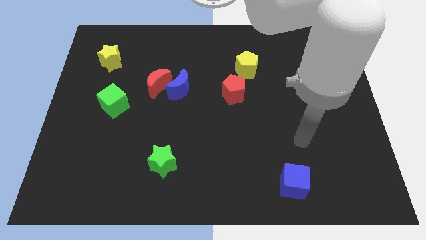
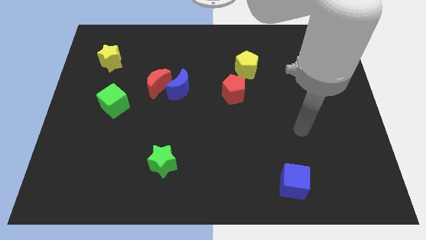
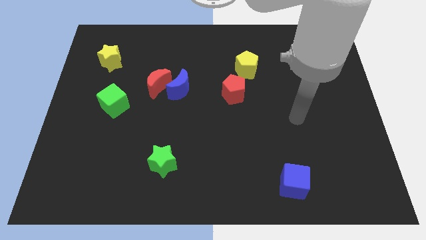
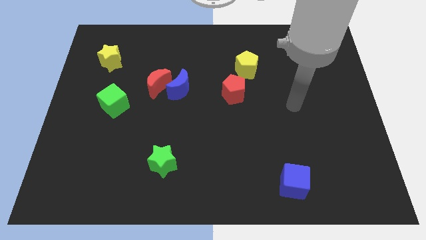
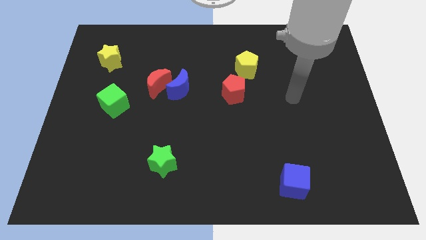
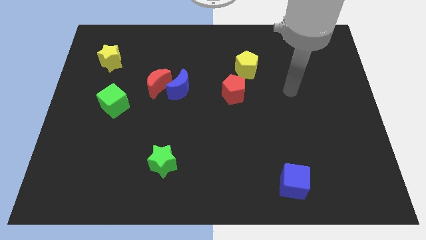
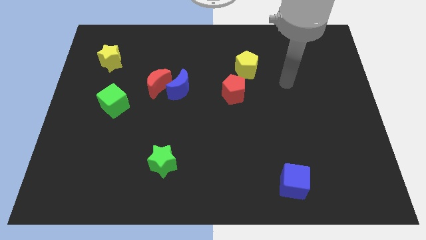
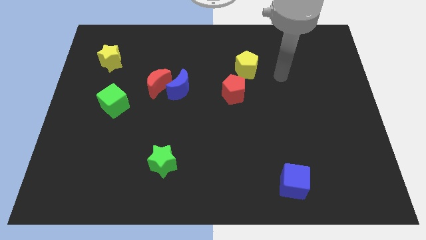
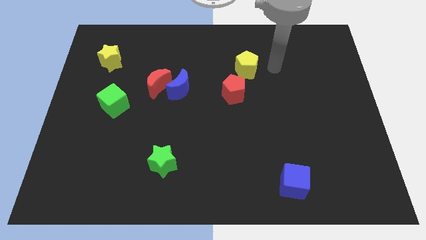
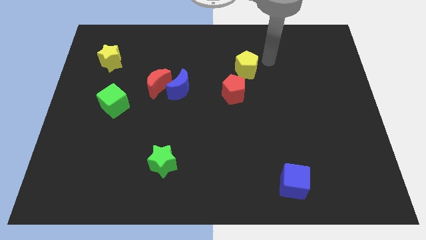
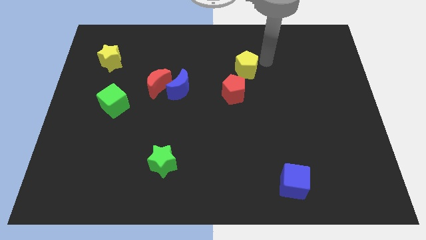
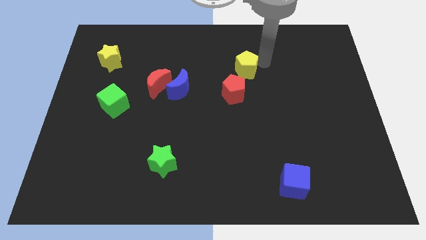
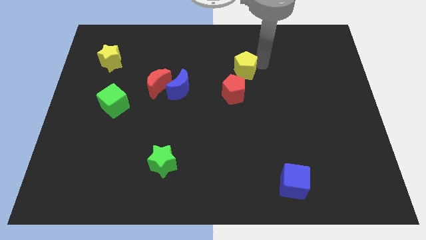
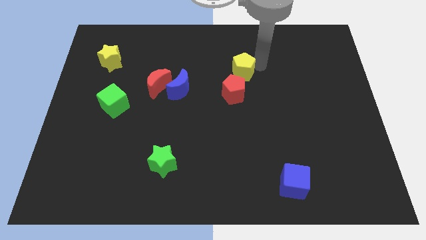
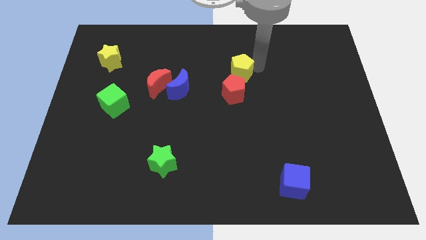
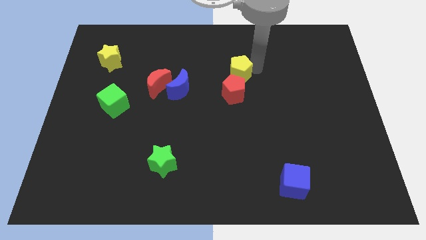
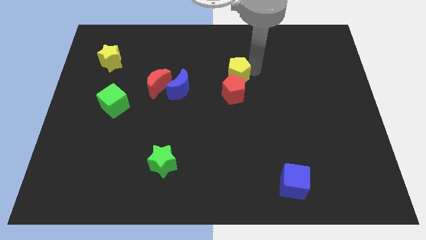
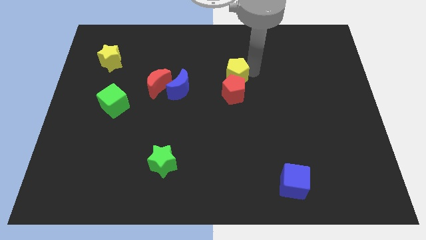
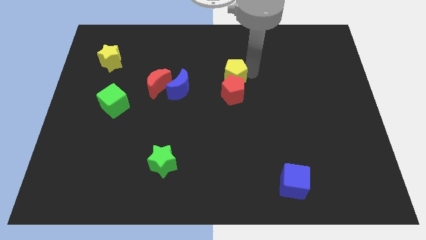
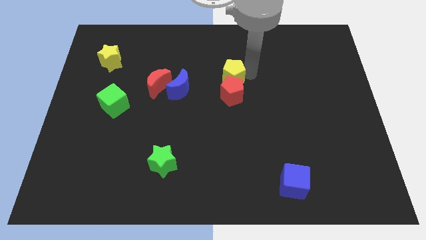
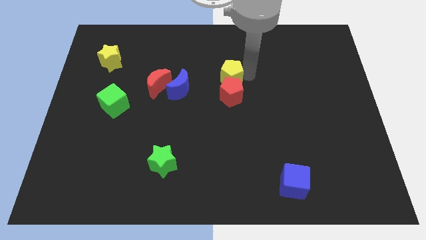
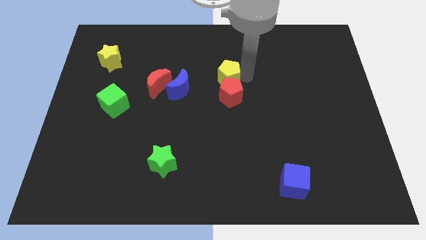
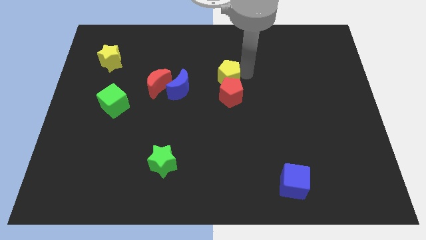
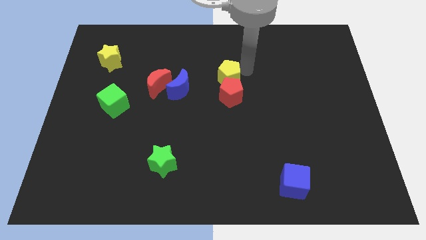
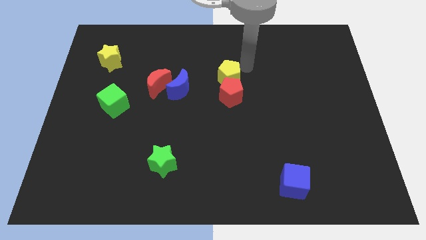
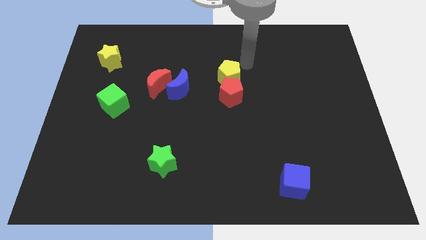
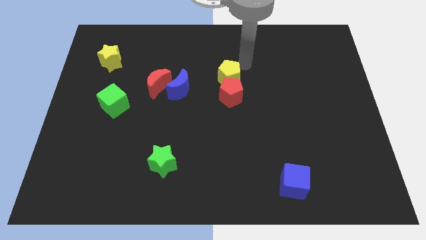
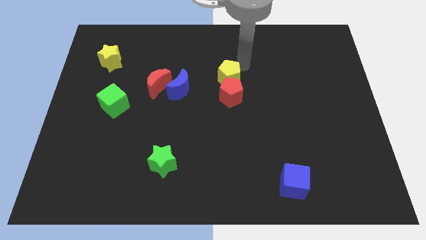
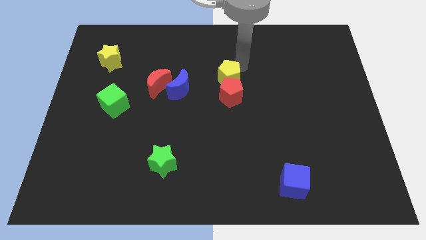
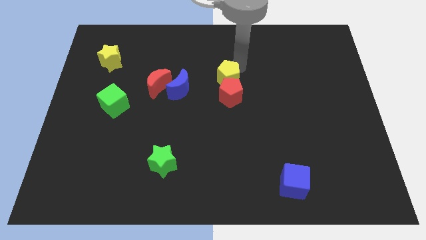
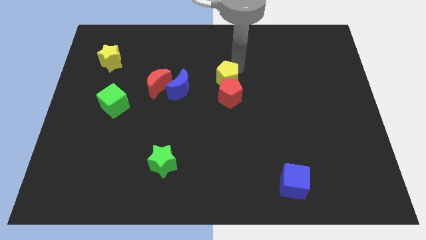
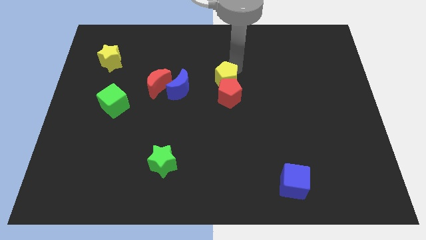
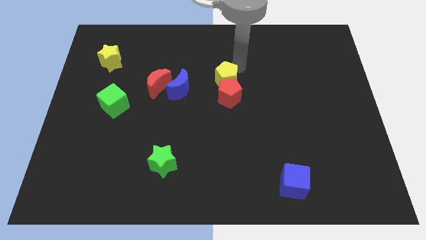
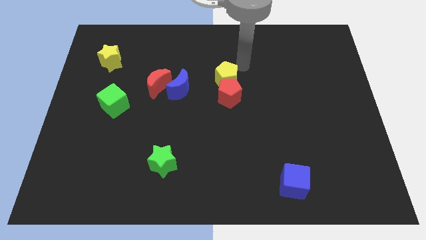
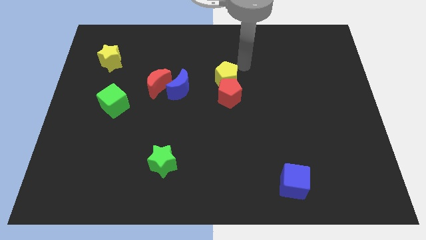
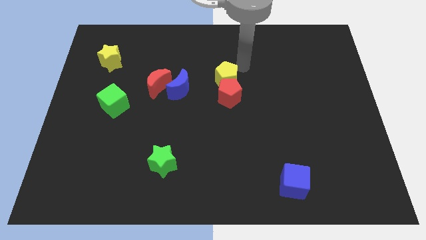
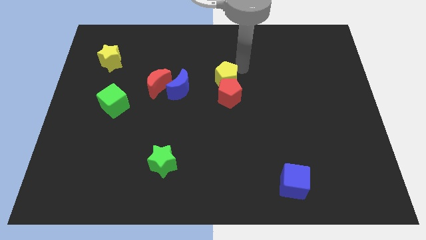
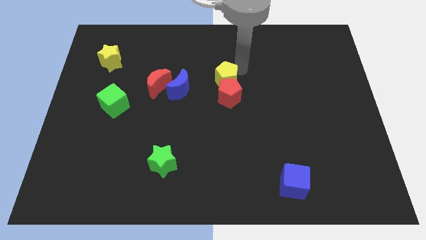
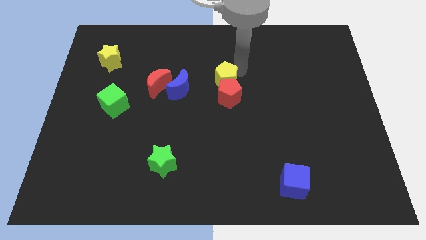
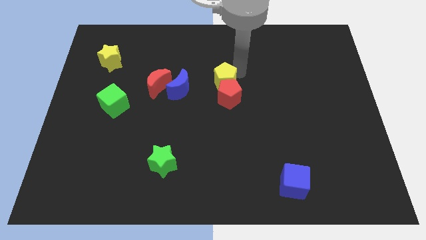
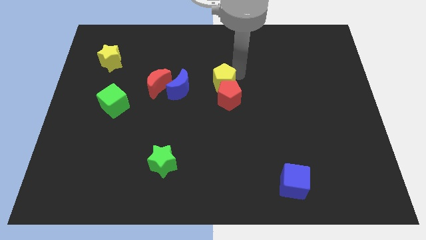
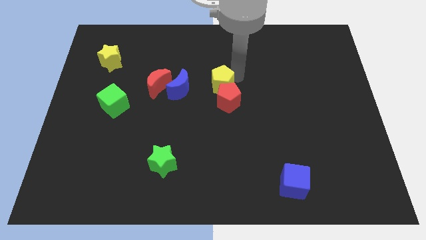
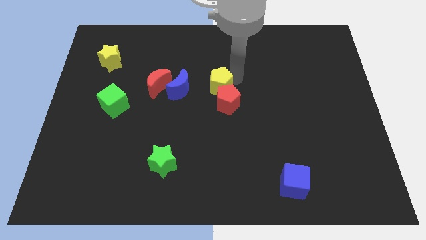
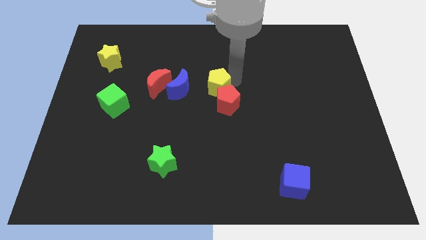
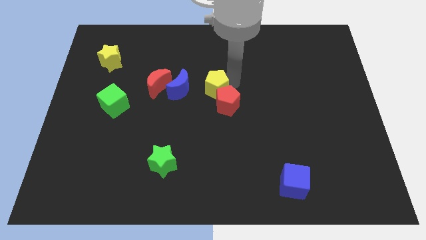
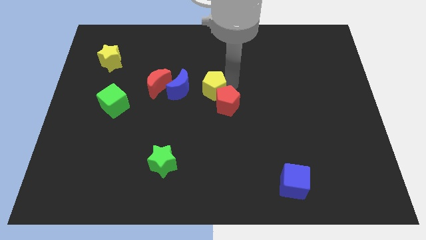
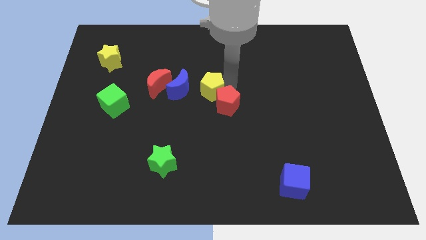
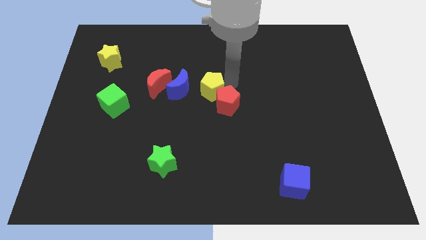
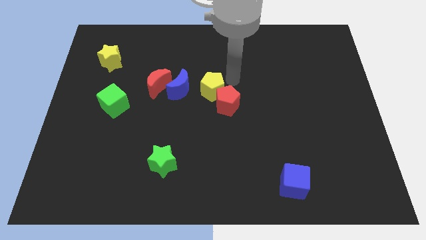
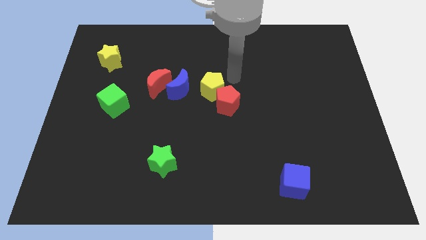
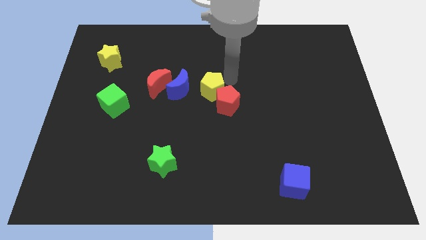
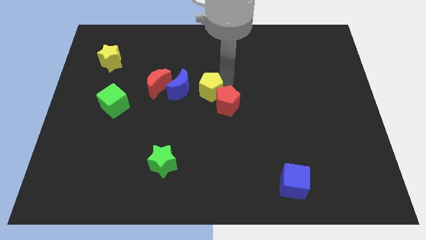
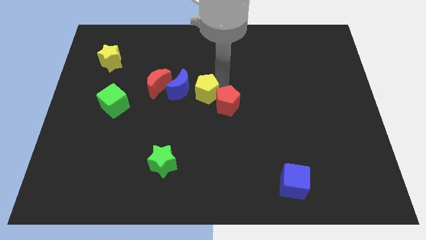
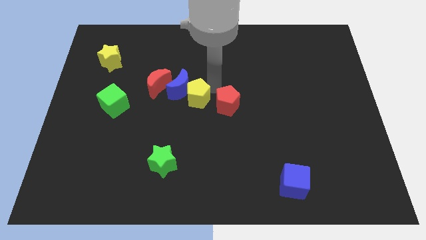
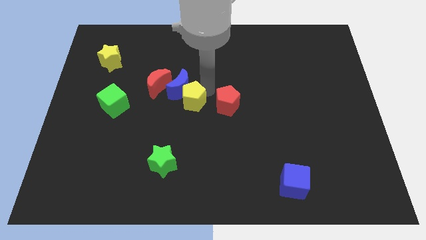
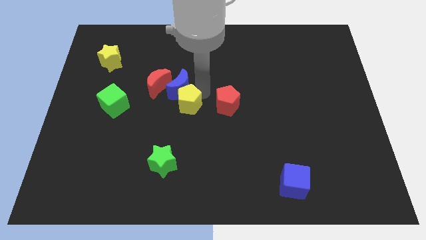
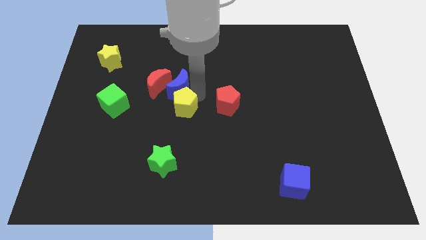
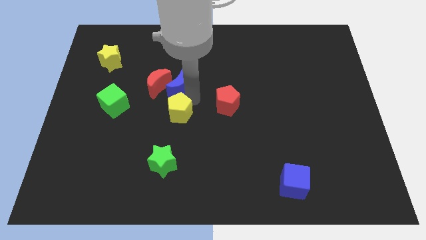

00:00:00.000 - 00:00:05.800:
move the yellow pentagon downwards and to the left diagonally

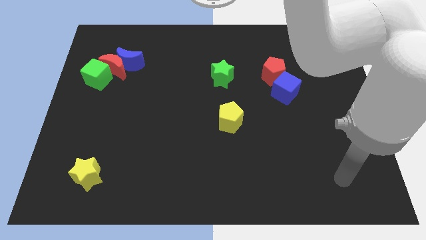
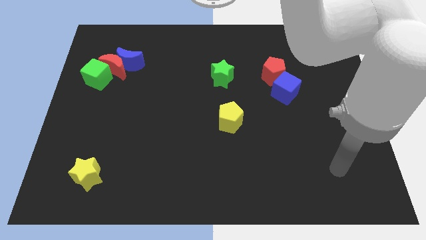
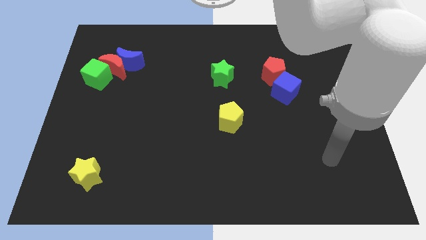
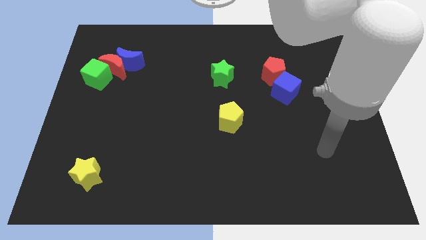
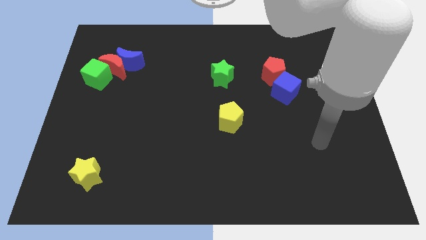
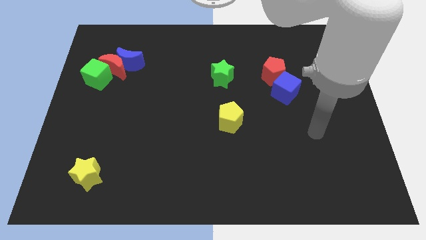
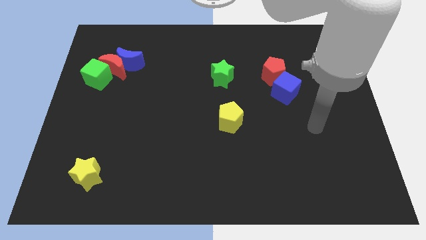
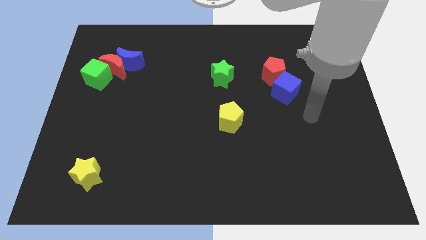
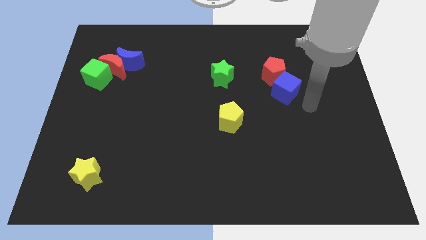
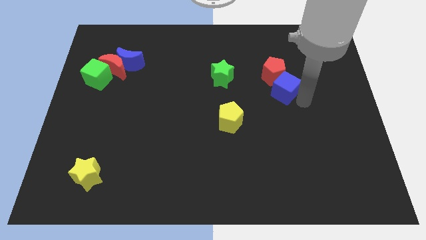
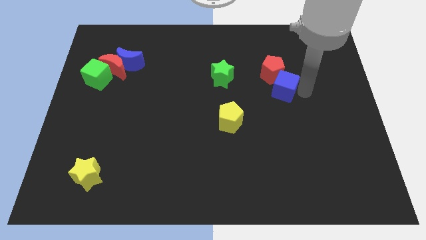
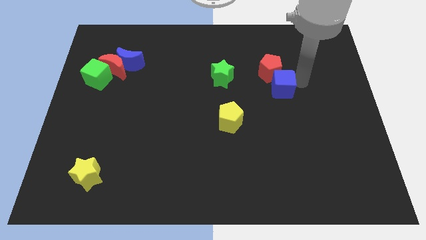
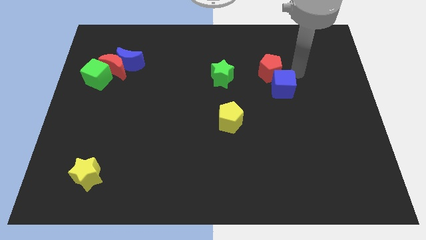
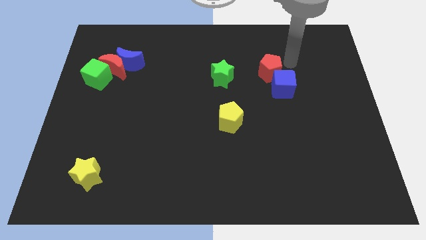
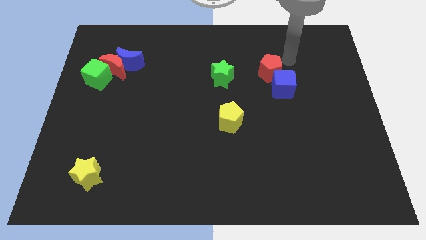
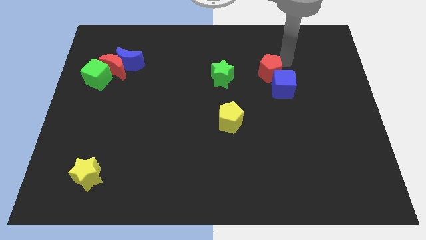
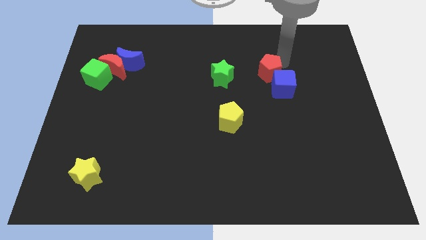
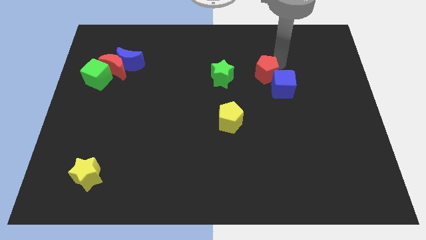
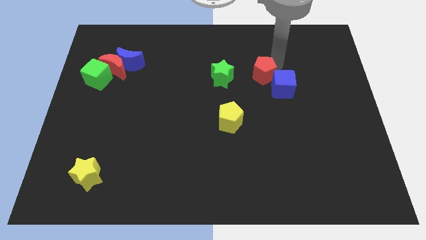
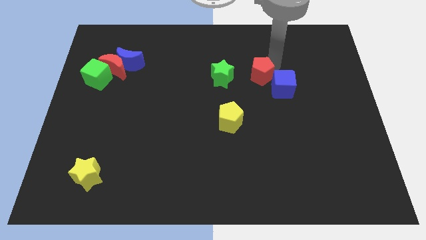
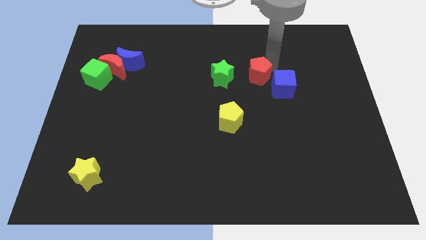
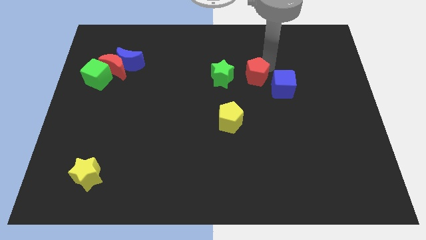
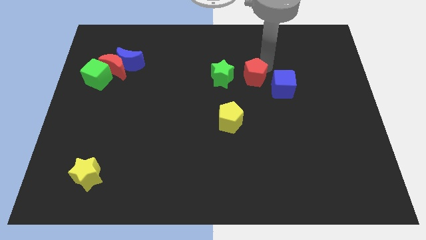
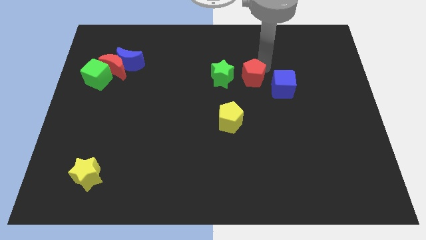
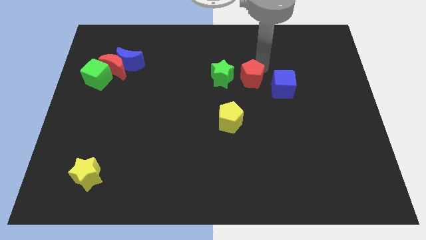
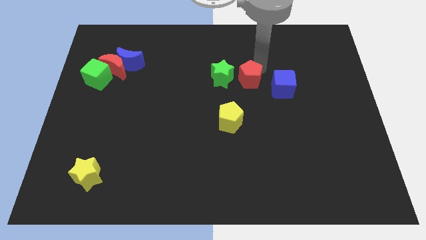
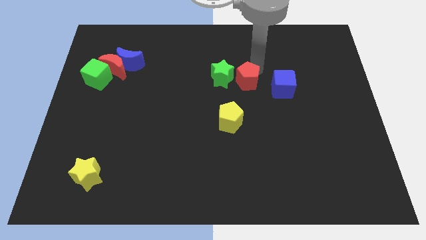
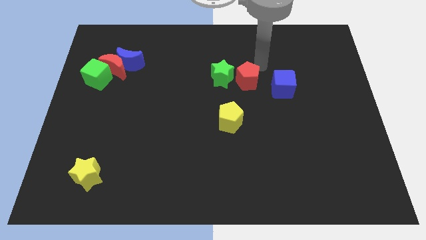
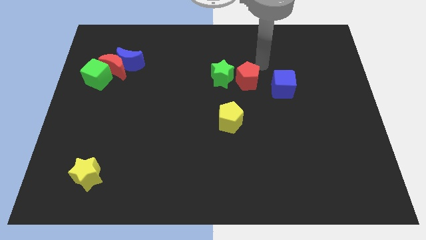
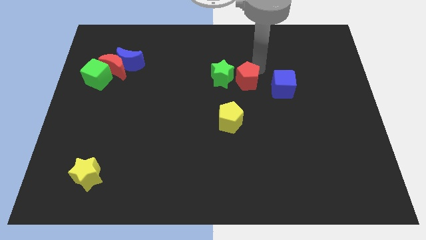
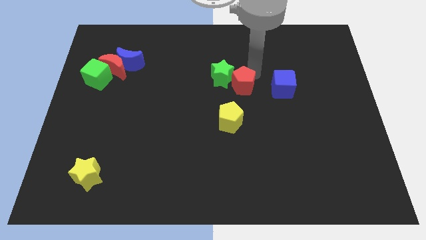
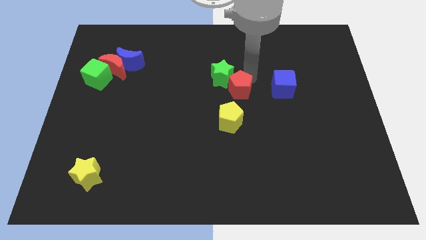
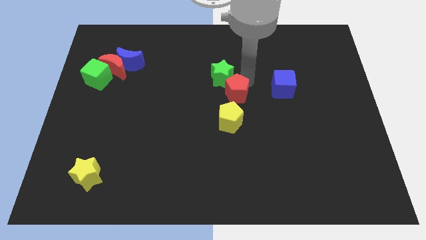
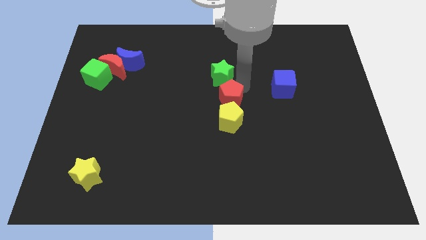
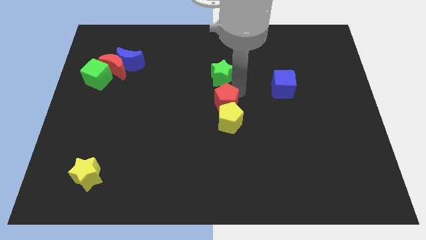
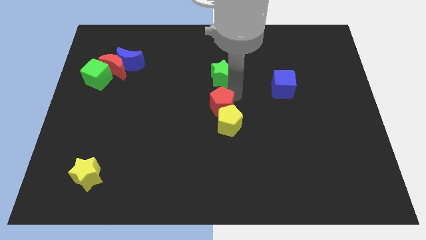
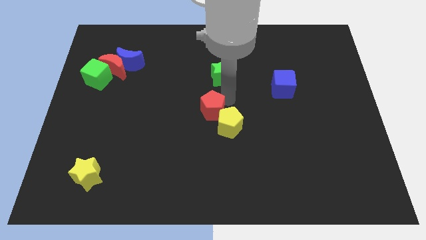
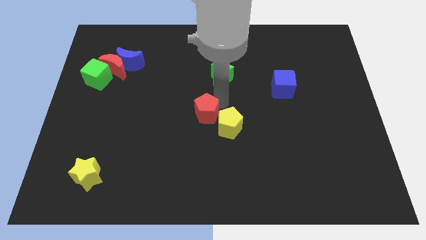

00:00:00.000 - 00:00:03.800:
push the red pentagon diagonally down and left
